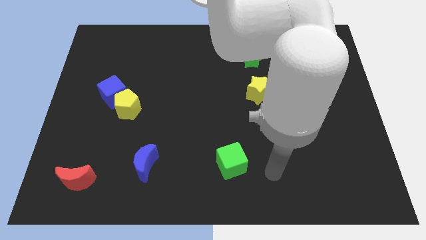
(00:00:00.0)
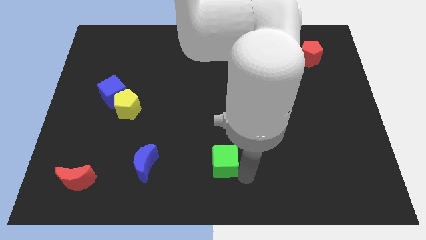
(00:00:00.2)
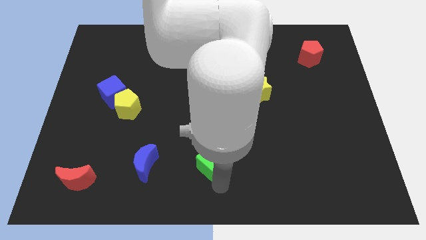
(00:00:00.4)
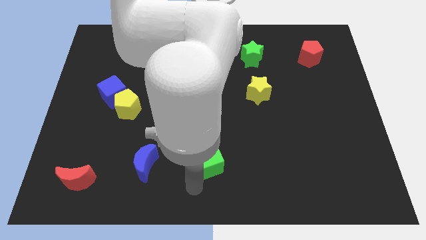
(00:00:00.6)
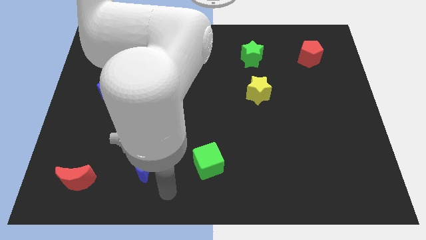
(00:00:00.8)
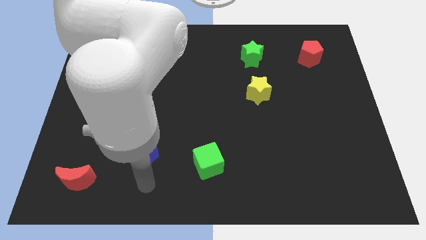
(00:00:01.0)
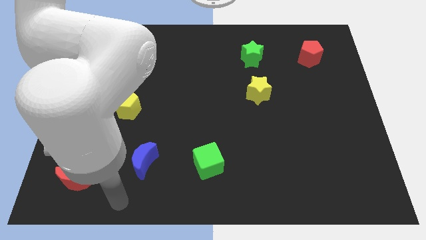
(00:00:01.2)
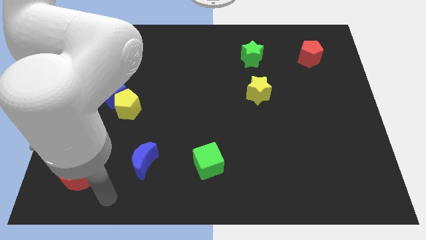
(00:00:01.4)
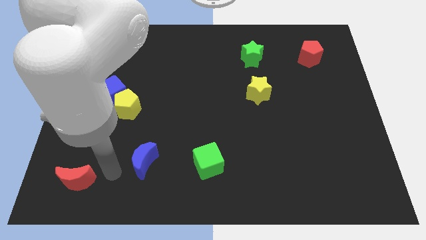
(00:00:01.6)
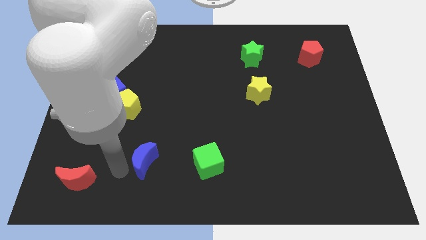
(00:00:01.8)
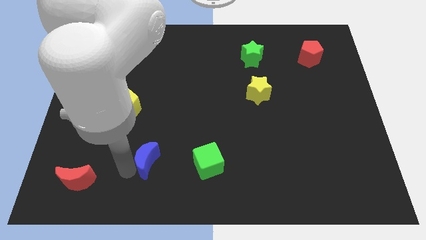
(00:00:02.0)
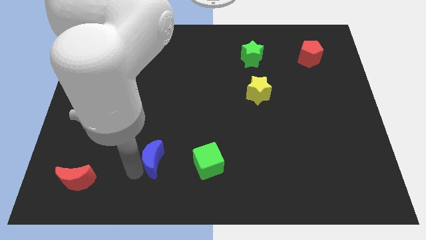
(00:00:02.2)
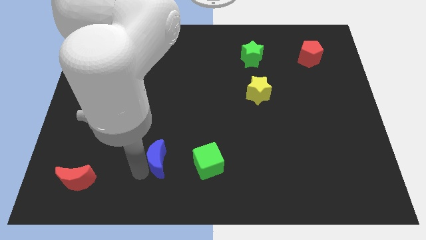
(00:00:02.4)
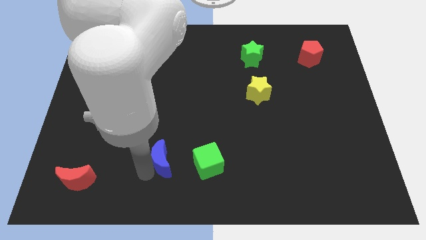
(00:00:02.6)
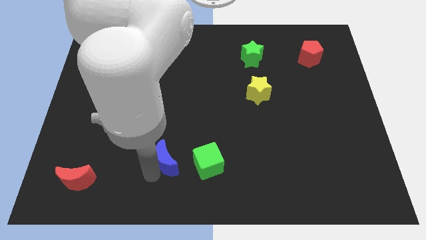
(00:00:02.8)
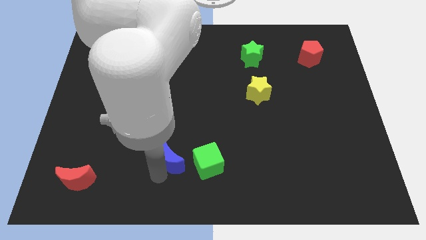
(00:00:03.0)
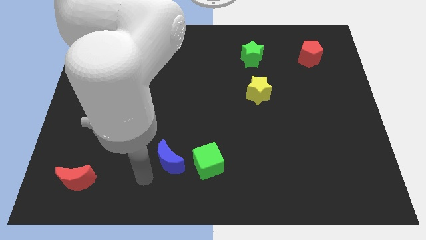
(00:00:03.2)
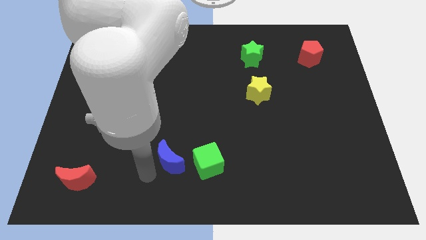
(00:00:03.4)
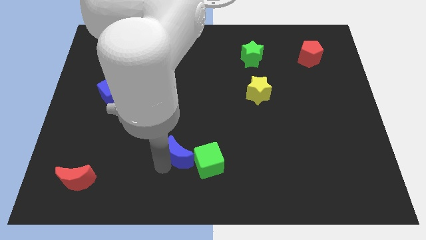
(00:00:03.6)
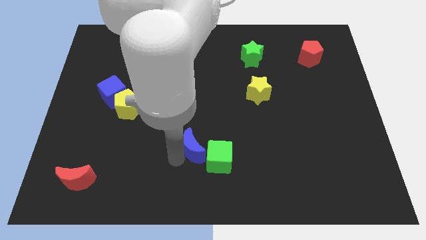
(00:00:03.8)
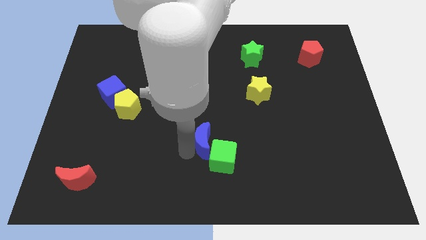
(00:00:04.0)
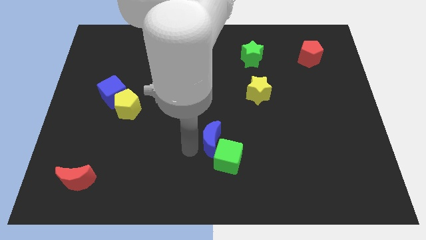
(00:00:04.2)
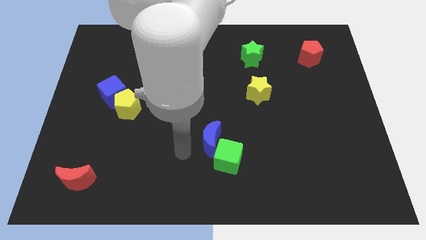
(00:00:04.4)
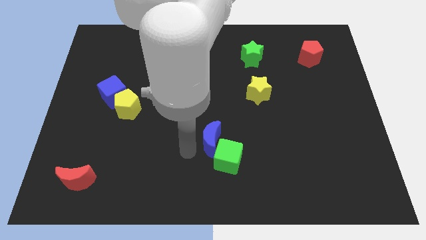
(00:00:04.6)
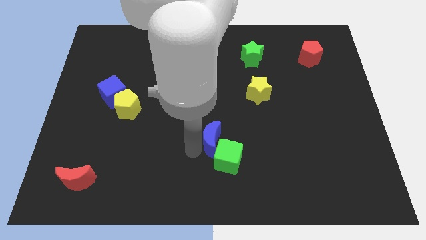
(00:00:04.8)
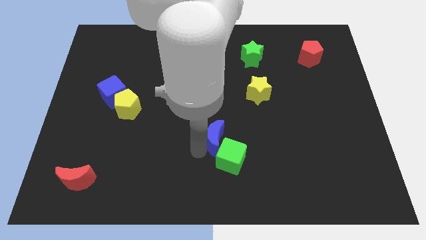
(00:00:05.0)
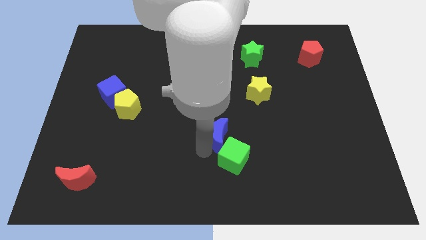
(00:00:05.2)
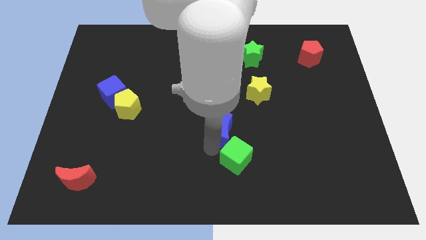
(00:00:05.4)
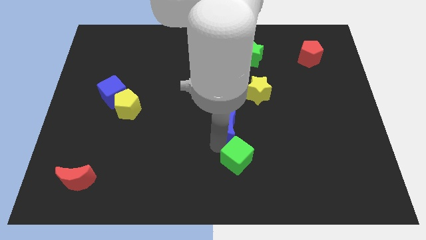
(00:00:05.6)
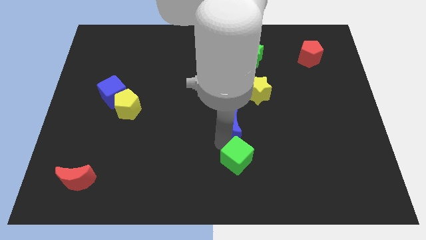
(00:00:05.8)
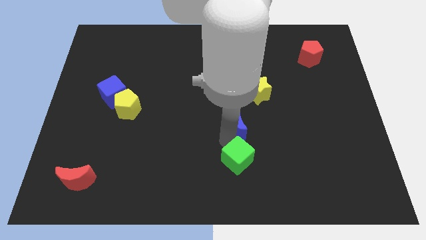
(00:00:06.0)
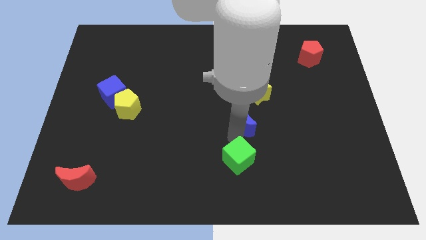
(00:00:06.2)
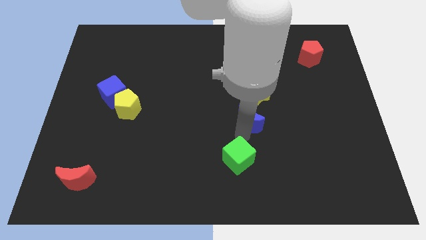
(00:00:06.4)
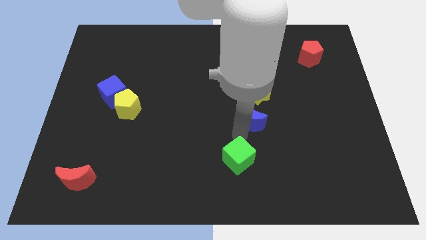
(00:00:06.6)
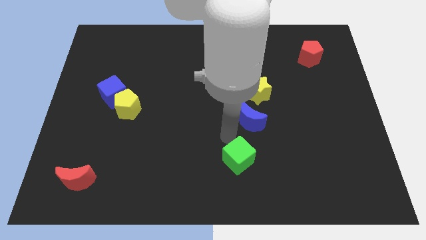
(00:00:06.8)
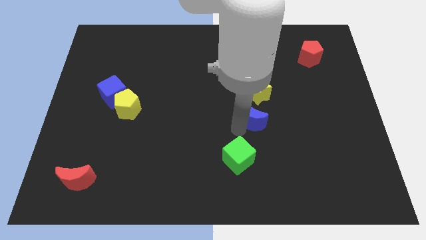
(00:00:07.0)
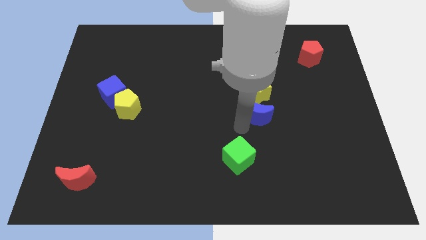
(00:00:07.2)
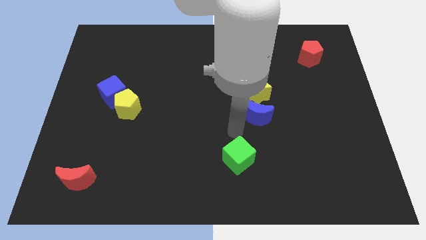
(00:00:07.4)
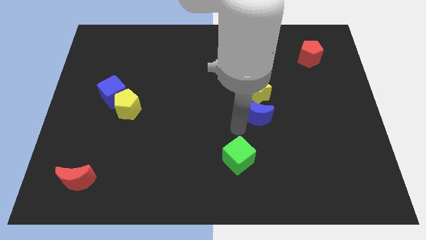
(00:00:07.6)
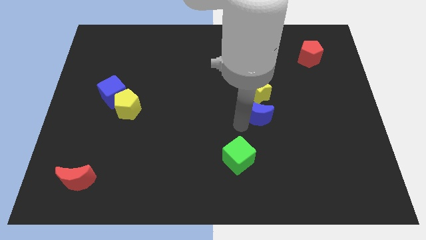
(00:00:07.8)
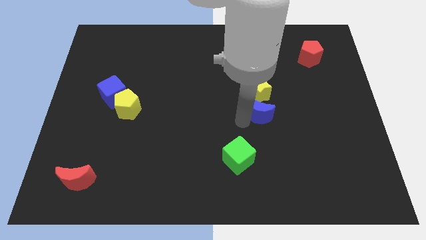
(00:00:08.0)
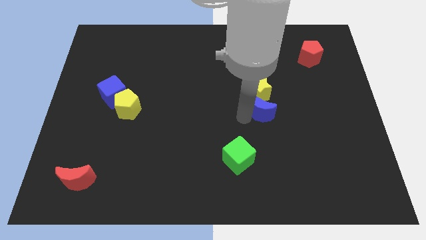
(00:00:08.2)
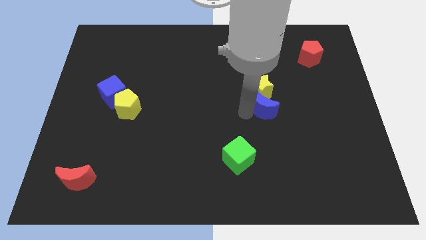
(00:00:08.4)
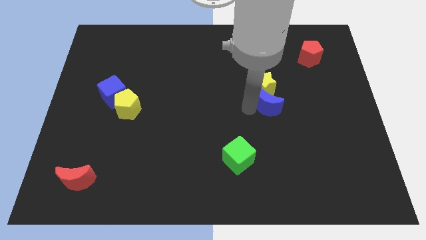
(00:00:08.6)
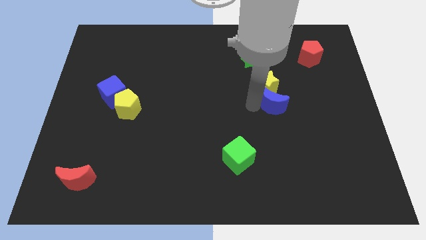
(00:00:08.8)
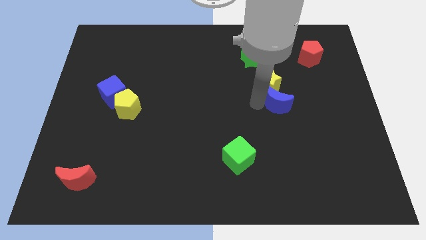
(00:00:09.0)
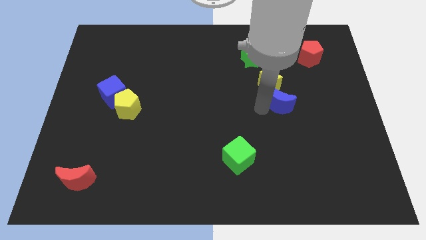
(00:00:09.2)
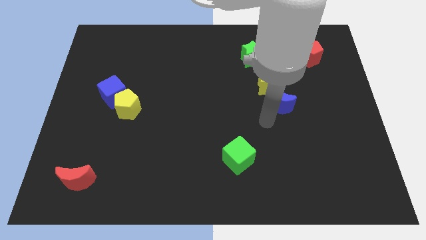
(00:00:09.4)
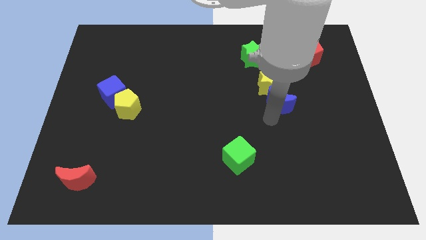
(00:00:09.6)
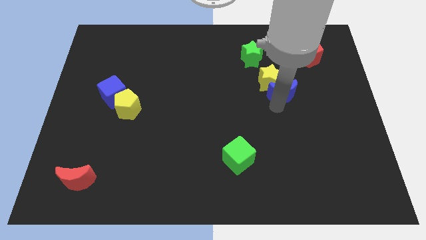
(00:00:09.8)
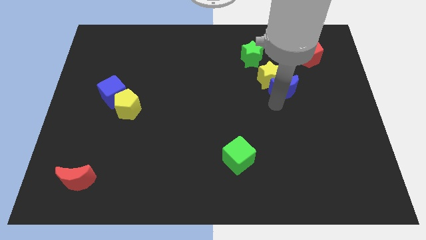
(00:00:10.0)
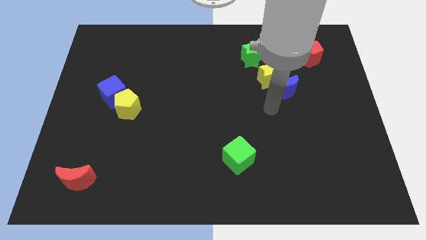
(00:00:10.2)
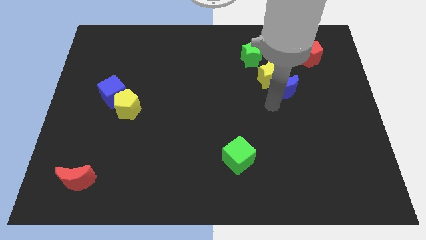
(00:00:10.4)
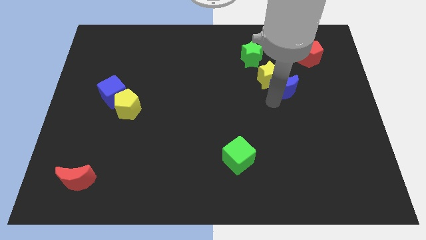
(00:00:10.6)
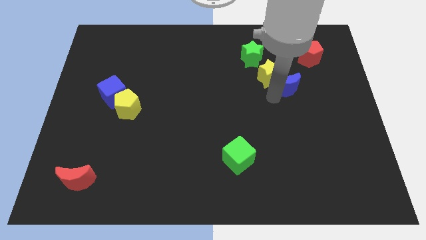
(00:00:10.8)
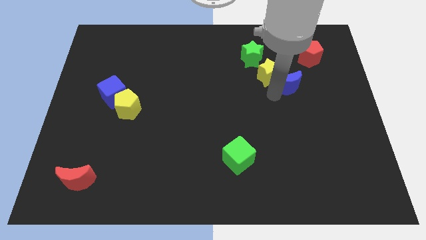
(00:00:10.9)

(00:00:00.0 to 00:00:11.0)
push the blue moon to the bottom left side of the red pentagon

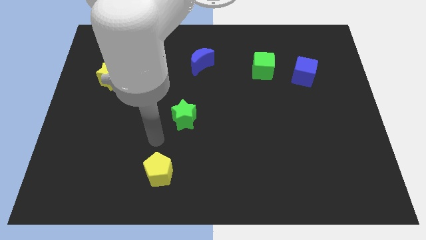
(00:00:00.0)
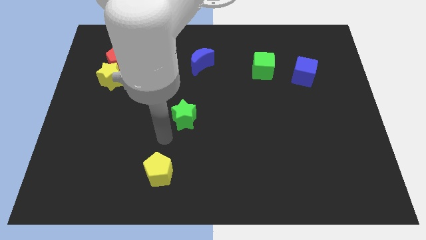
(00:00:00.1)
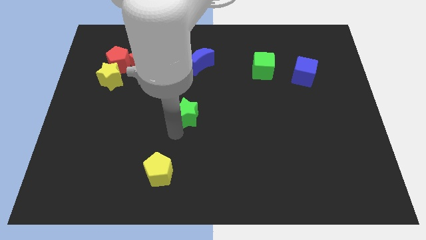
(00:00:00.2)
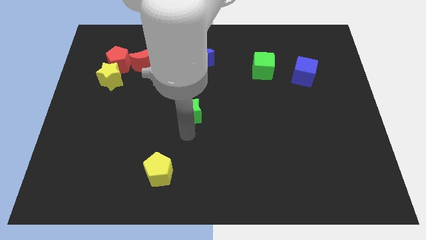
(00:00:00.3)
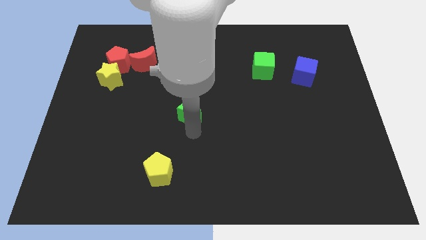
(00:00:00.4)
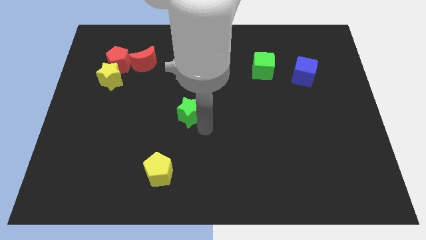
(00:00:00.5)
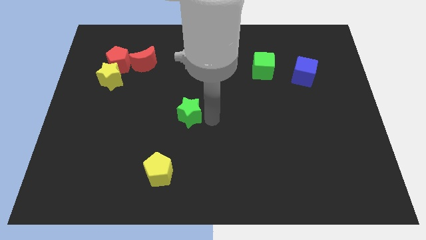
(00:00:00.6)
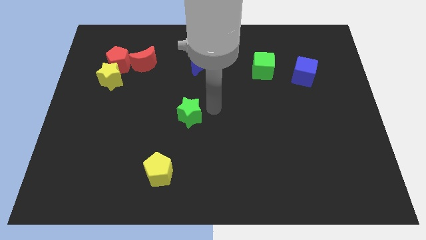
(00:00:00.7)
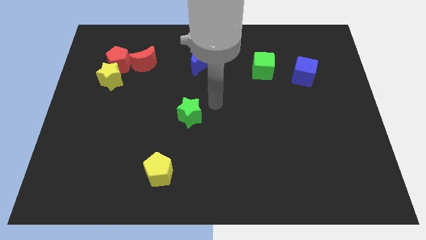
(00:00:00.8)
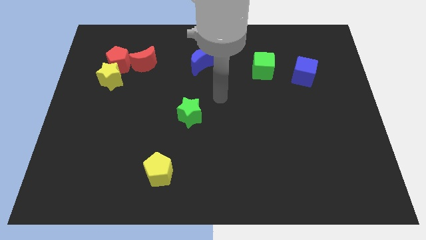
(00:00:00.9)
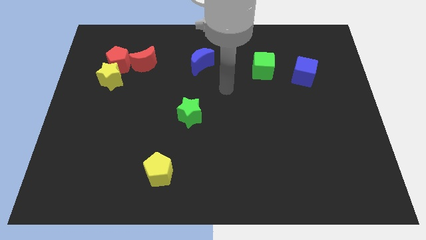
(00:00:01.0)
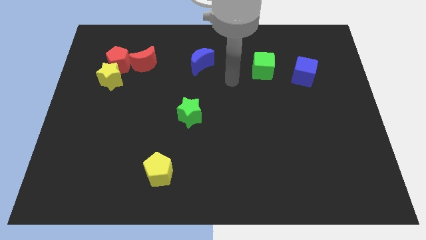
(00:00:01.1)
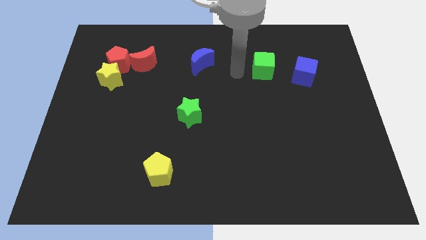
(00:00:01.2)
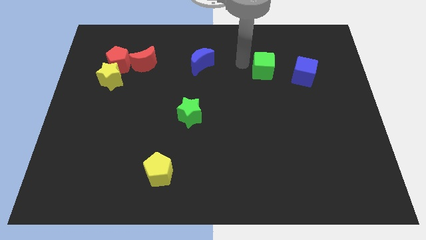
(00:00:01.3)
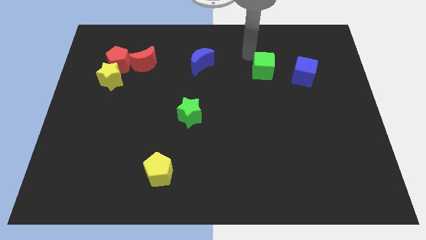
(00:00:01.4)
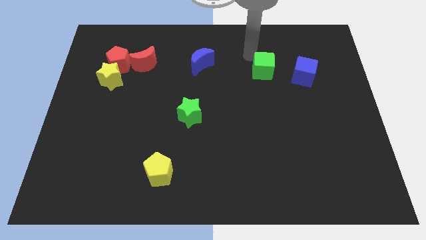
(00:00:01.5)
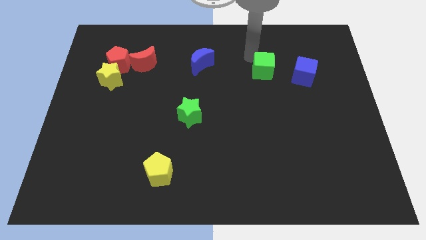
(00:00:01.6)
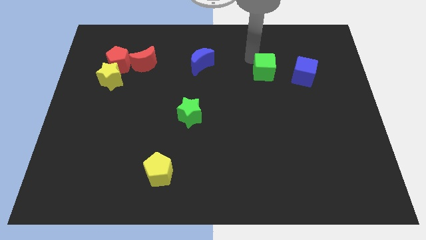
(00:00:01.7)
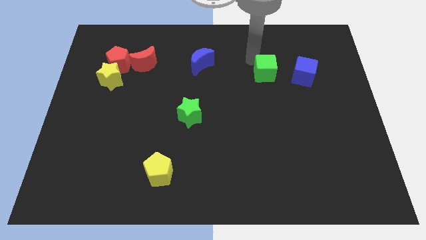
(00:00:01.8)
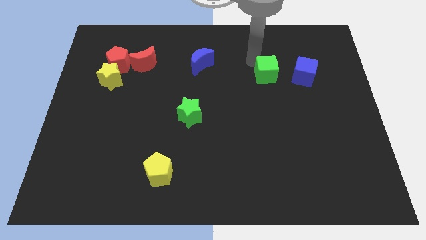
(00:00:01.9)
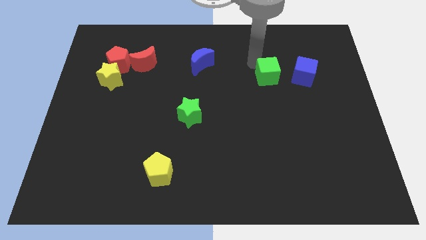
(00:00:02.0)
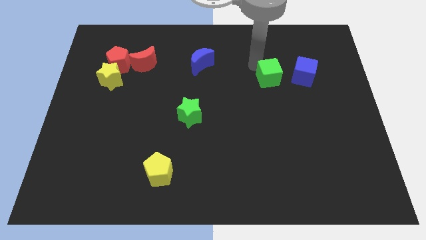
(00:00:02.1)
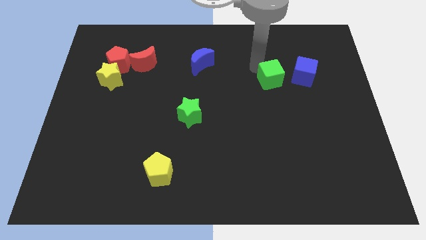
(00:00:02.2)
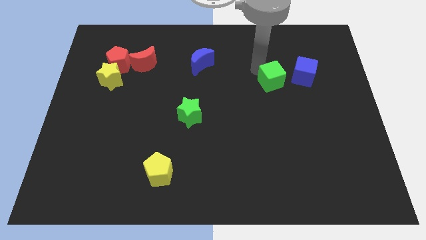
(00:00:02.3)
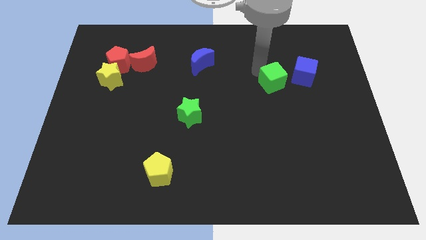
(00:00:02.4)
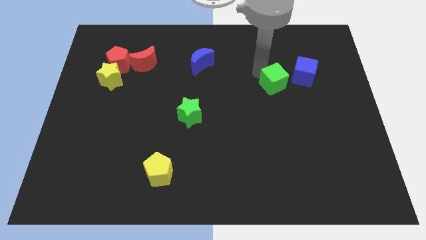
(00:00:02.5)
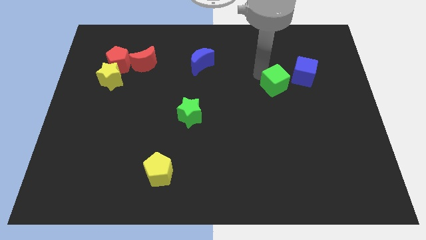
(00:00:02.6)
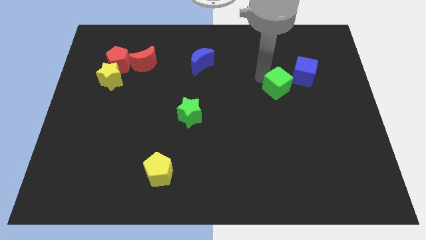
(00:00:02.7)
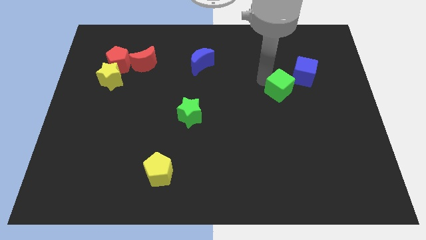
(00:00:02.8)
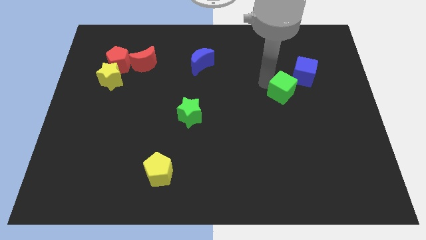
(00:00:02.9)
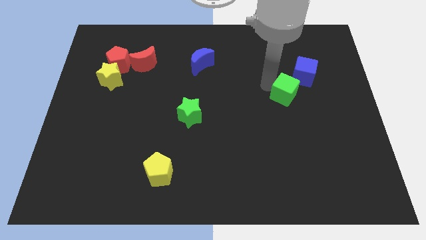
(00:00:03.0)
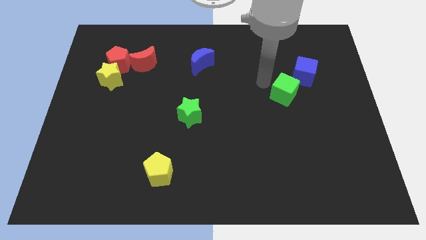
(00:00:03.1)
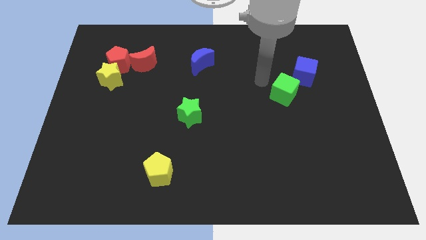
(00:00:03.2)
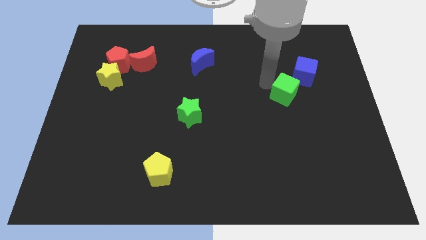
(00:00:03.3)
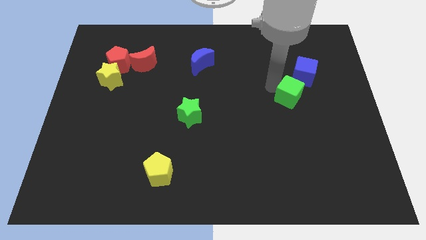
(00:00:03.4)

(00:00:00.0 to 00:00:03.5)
push the green cube below the blue cube
